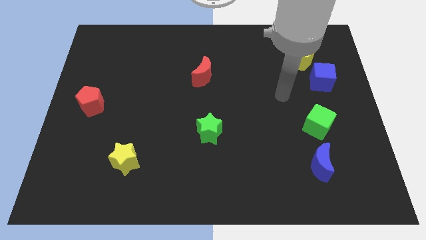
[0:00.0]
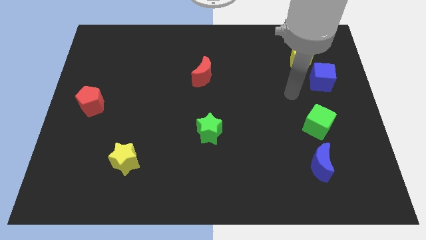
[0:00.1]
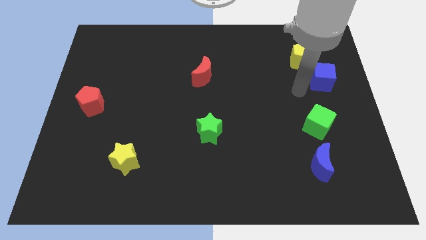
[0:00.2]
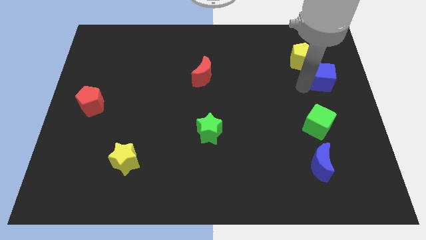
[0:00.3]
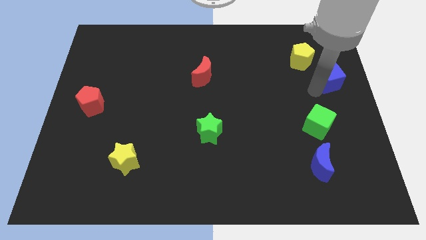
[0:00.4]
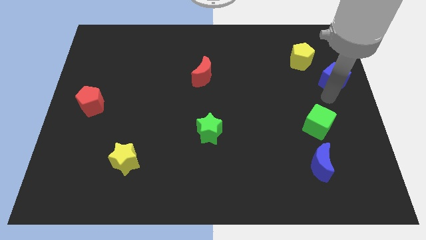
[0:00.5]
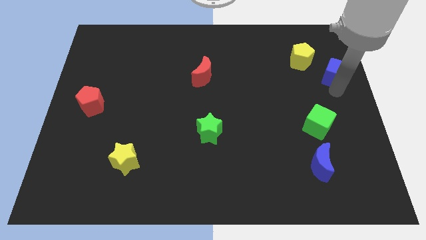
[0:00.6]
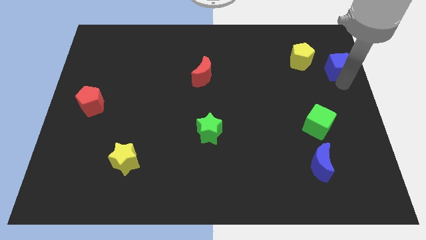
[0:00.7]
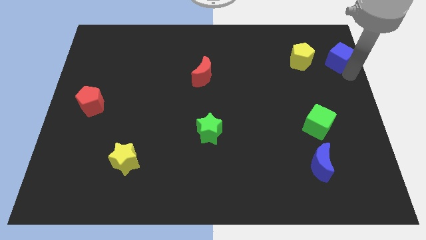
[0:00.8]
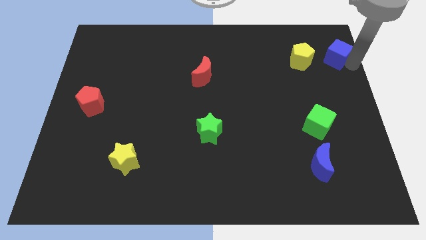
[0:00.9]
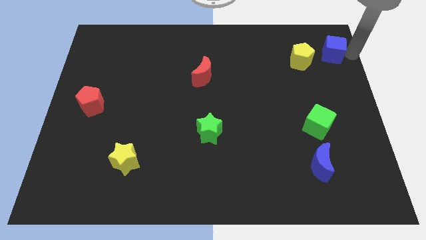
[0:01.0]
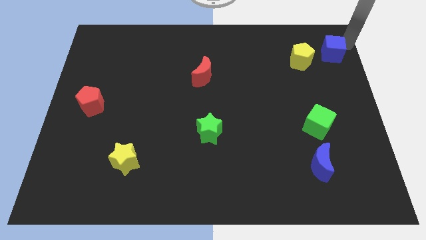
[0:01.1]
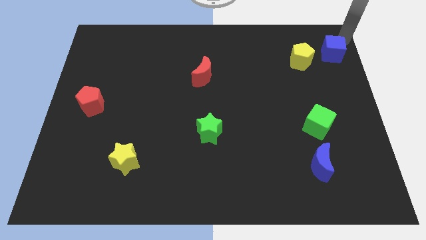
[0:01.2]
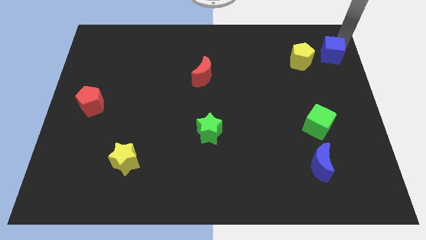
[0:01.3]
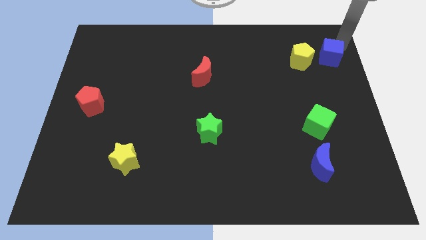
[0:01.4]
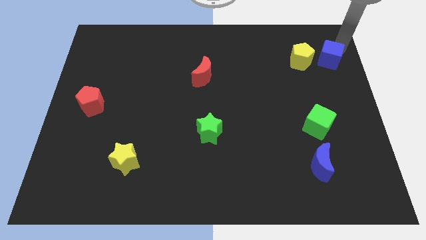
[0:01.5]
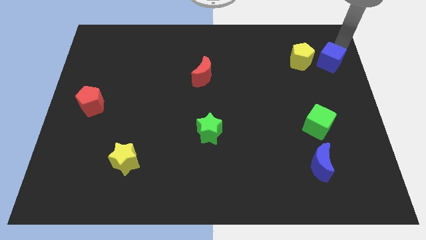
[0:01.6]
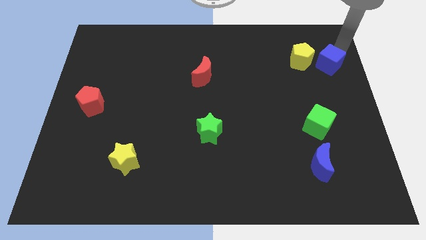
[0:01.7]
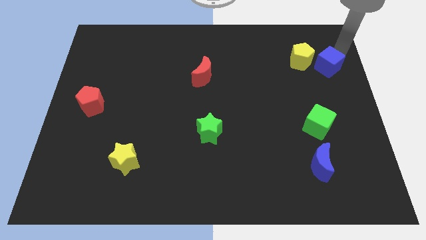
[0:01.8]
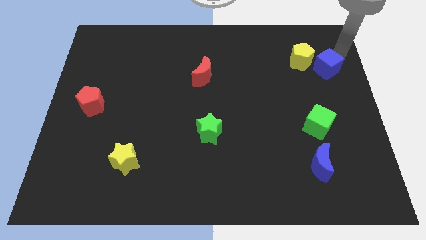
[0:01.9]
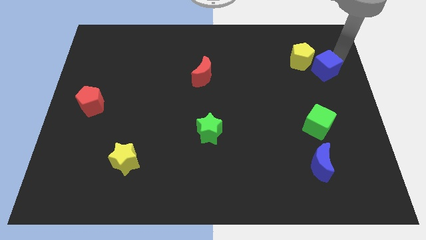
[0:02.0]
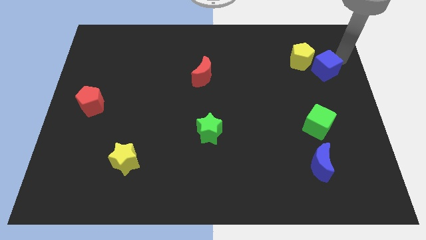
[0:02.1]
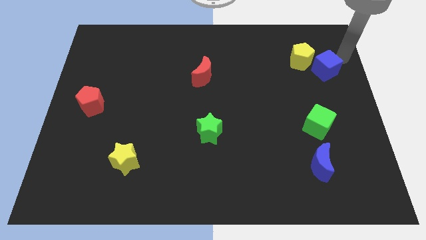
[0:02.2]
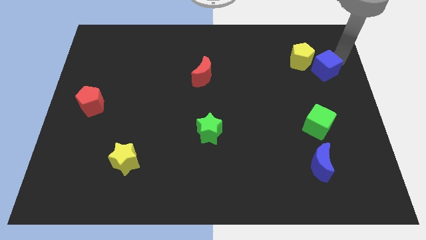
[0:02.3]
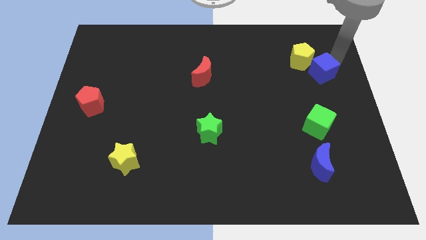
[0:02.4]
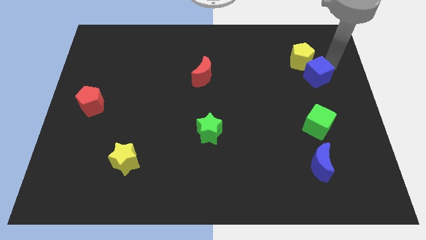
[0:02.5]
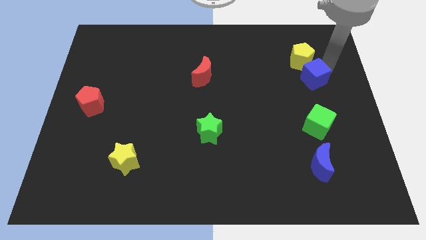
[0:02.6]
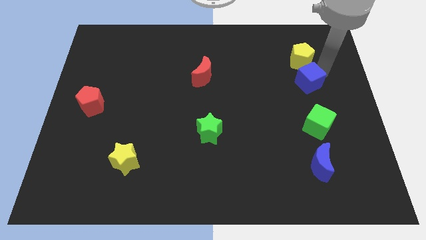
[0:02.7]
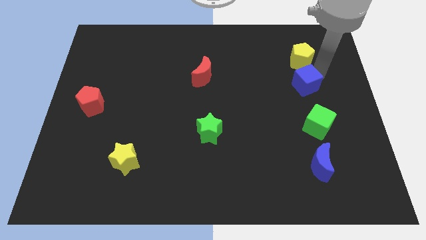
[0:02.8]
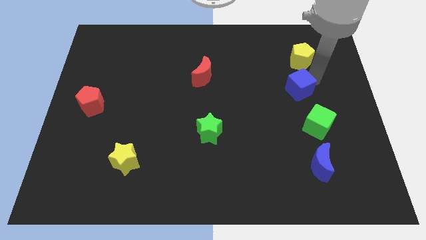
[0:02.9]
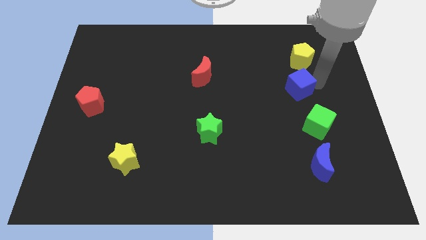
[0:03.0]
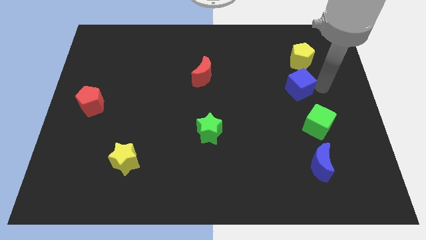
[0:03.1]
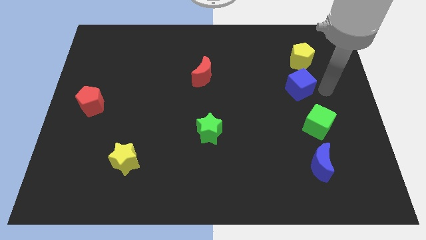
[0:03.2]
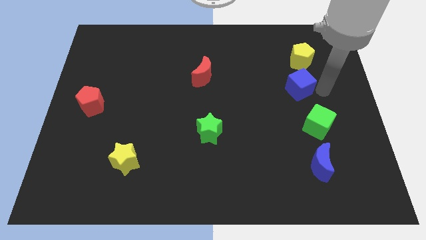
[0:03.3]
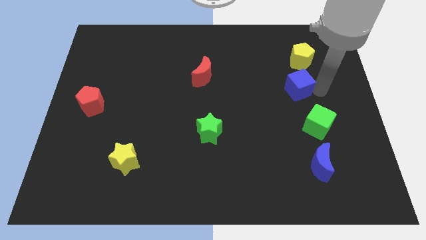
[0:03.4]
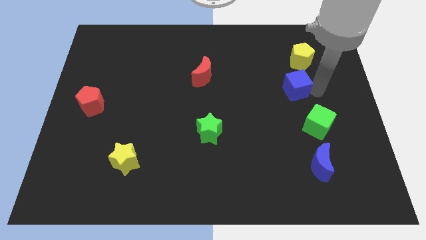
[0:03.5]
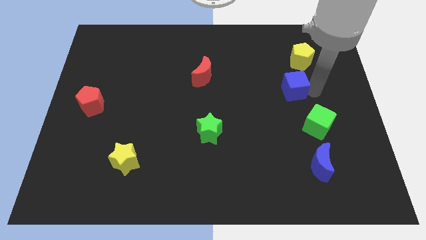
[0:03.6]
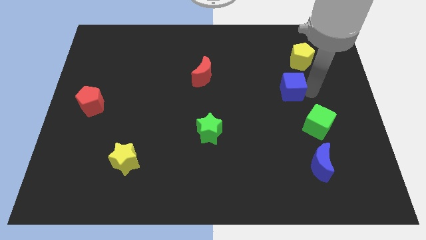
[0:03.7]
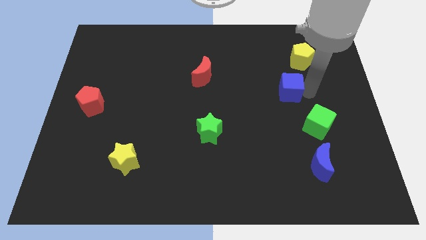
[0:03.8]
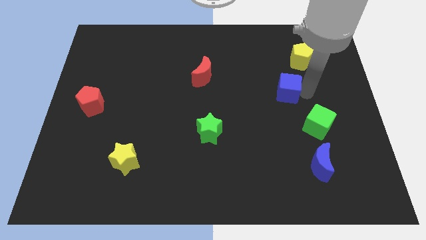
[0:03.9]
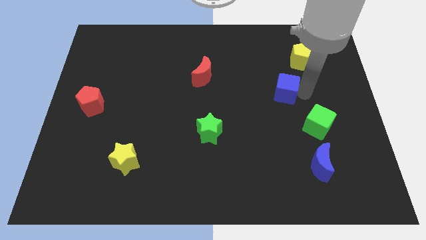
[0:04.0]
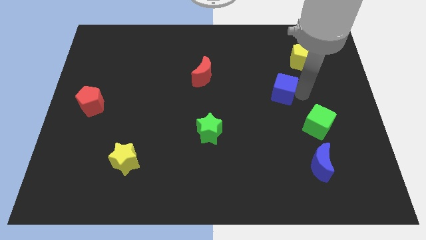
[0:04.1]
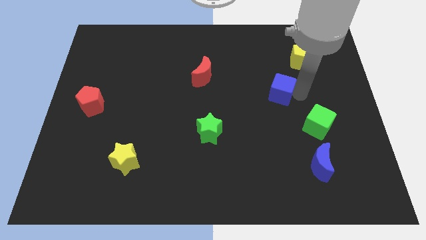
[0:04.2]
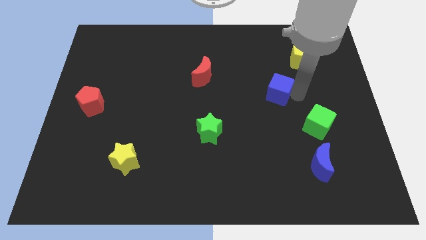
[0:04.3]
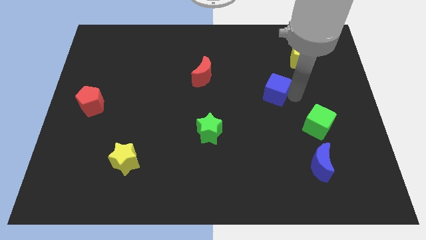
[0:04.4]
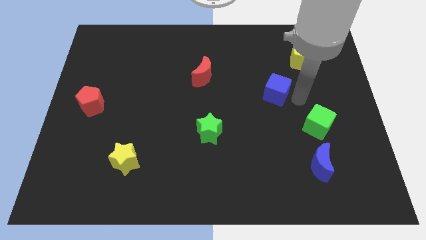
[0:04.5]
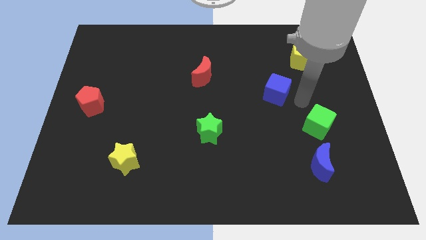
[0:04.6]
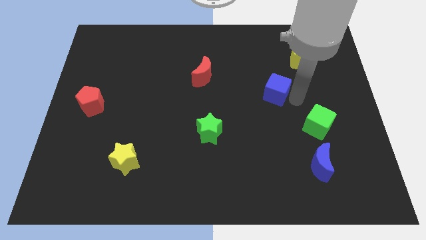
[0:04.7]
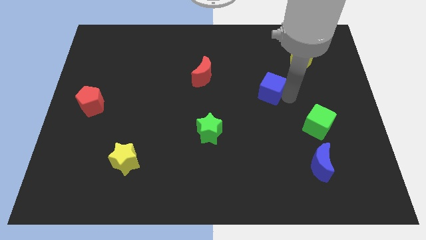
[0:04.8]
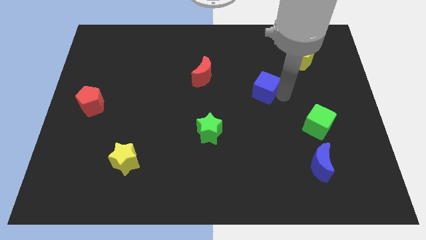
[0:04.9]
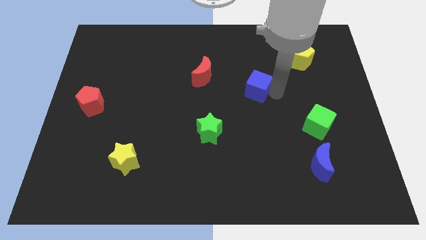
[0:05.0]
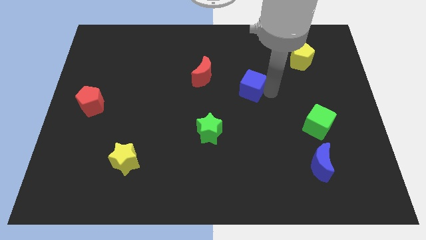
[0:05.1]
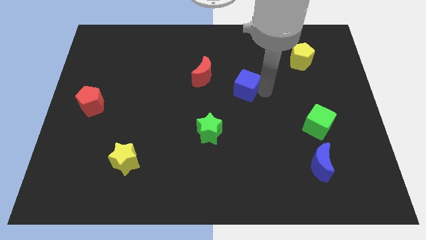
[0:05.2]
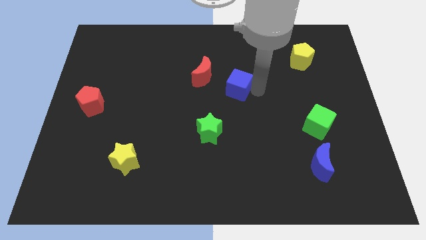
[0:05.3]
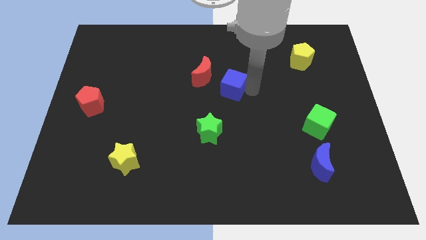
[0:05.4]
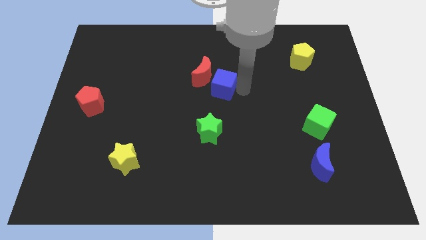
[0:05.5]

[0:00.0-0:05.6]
slide the blue cube towards the red moon

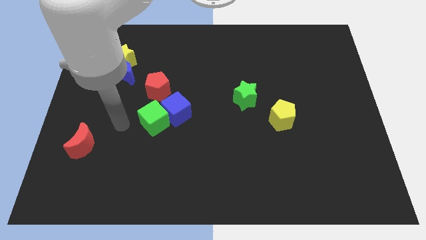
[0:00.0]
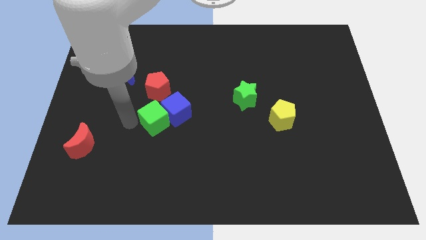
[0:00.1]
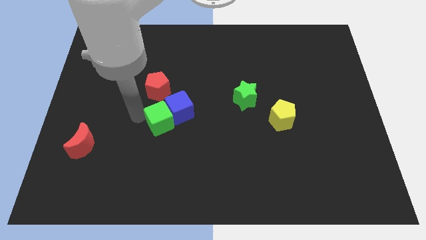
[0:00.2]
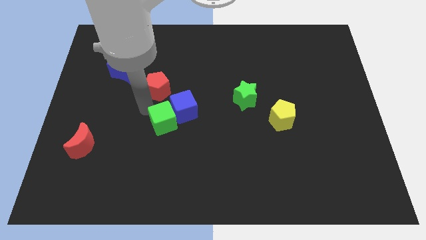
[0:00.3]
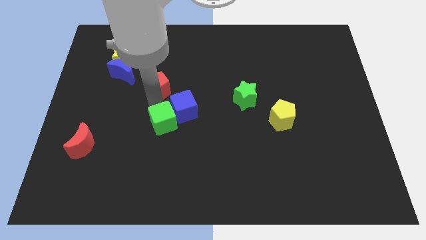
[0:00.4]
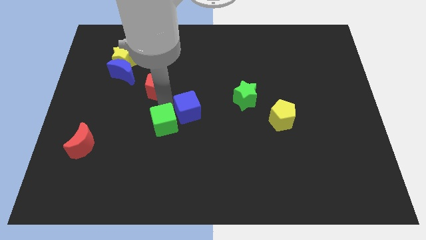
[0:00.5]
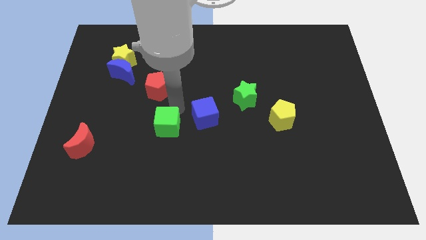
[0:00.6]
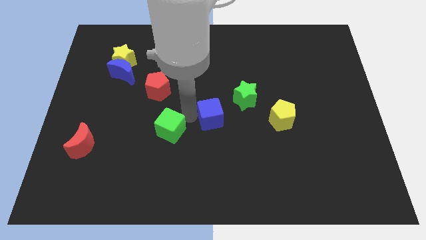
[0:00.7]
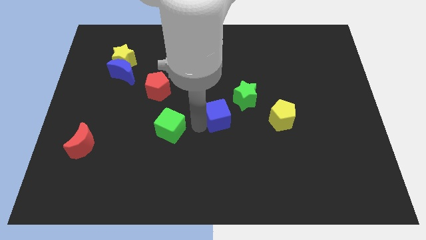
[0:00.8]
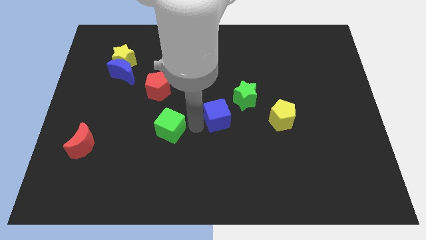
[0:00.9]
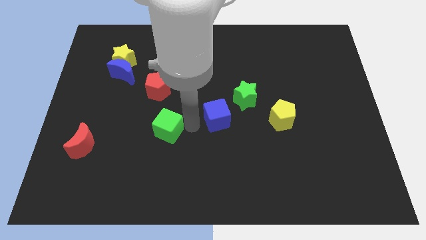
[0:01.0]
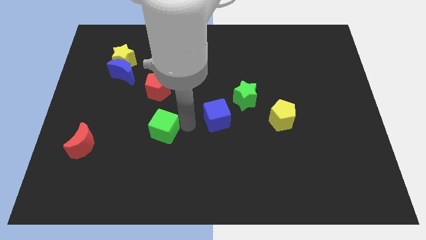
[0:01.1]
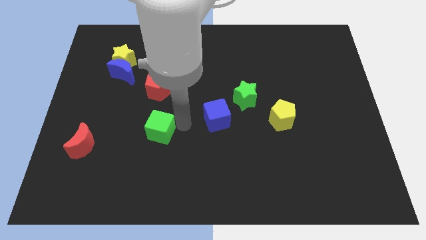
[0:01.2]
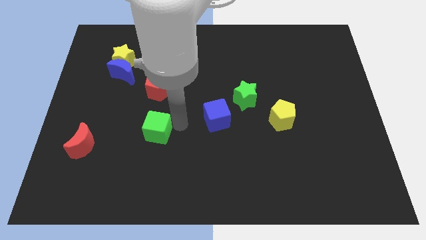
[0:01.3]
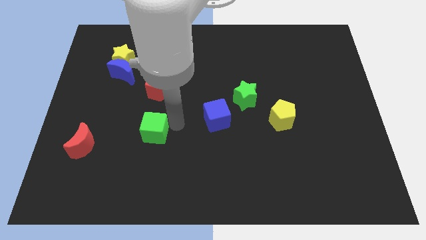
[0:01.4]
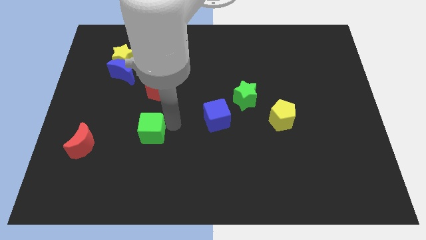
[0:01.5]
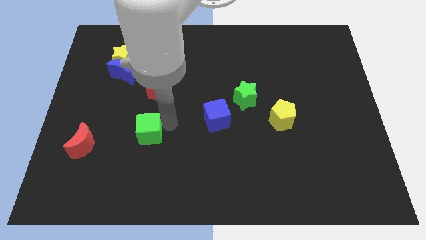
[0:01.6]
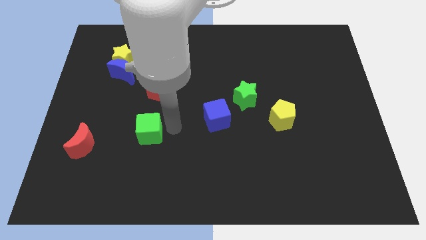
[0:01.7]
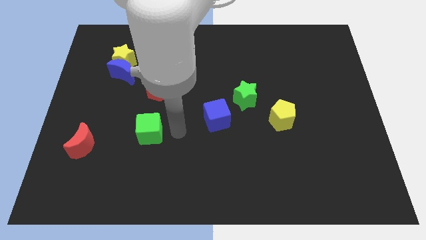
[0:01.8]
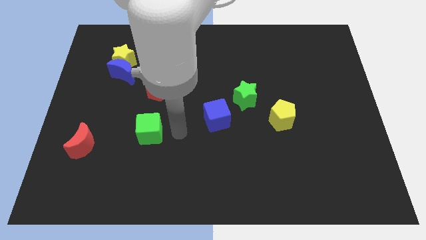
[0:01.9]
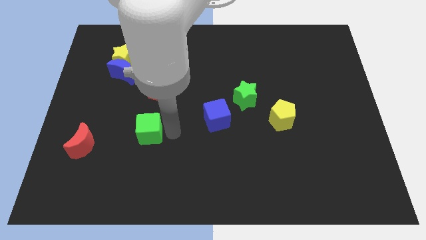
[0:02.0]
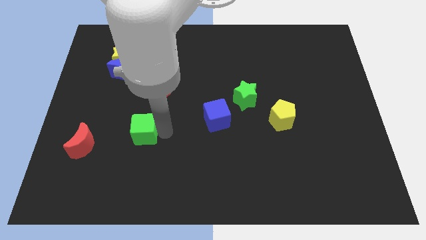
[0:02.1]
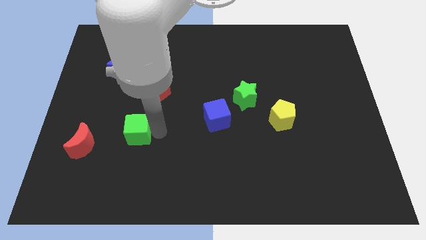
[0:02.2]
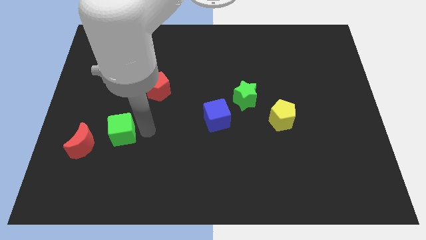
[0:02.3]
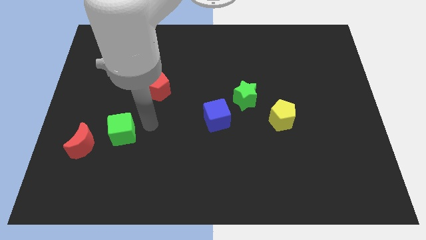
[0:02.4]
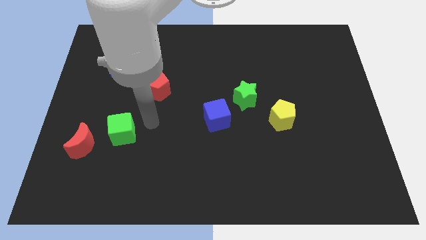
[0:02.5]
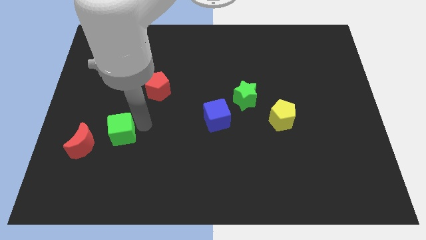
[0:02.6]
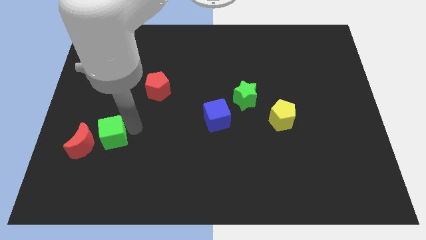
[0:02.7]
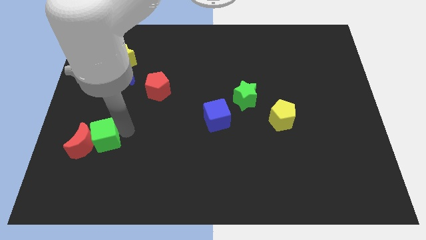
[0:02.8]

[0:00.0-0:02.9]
put the green cube close to the red moon
